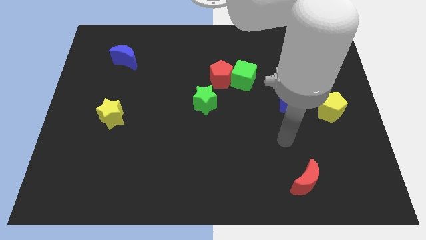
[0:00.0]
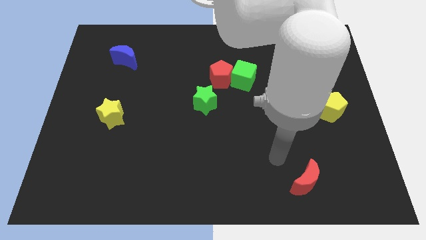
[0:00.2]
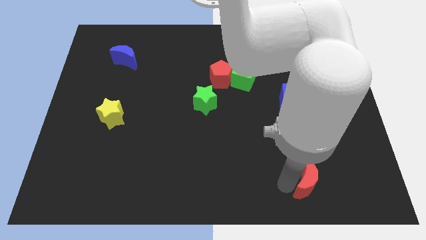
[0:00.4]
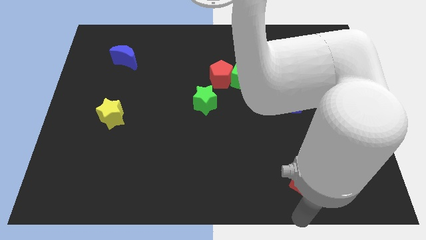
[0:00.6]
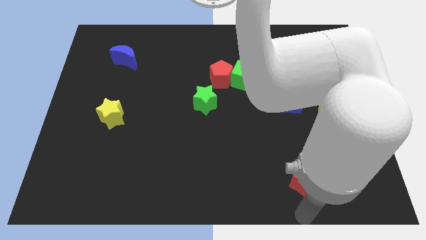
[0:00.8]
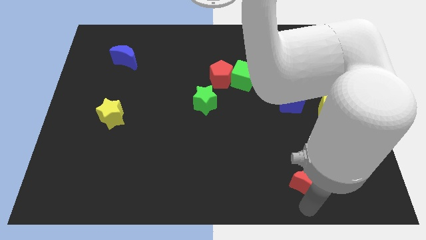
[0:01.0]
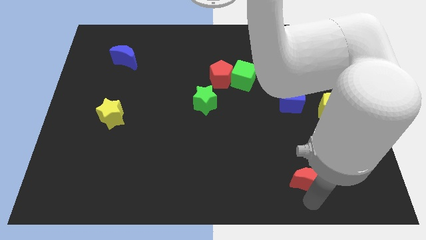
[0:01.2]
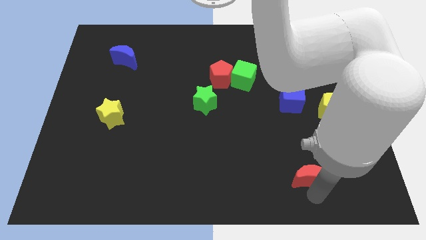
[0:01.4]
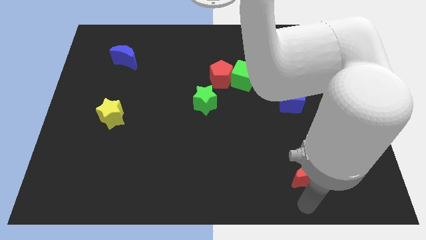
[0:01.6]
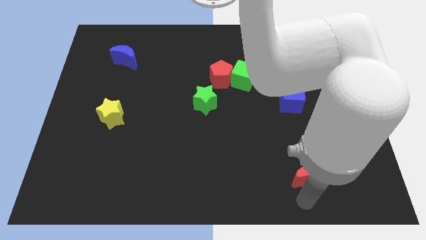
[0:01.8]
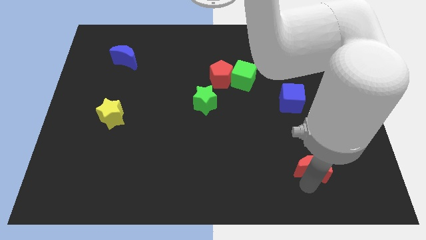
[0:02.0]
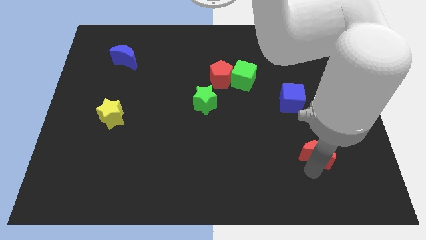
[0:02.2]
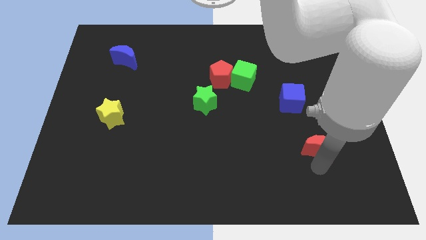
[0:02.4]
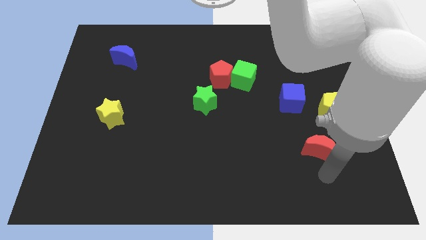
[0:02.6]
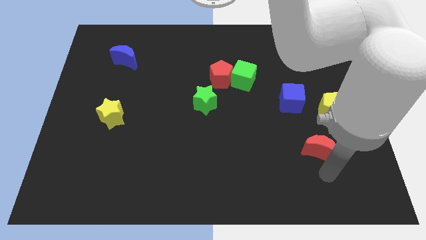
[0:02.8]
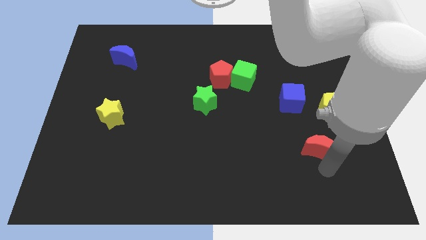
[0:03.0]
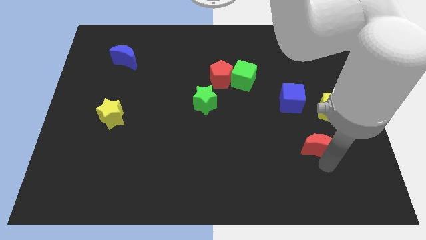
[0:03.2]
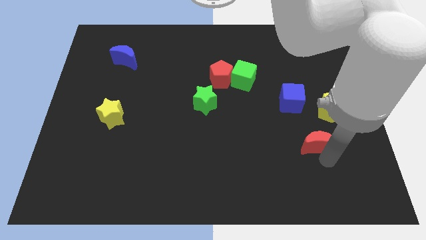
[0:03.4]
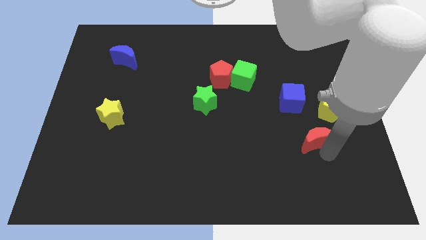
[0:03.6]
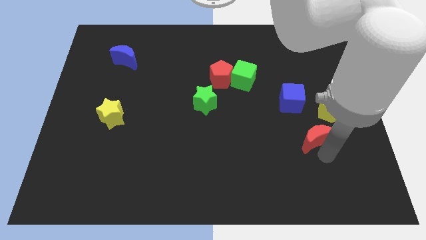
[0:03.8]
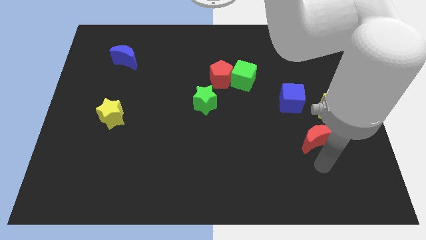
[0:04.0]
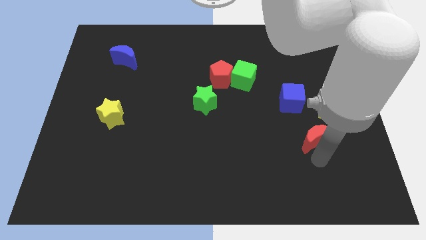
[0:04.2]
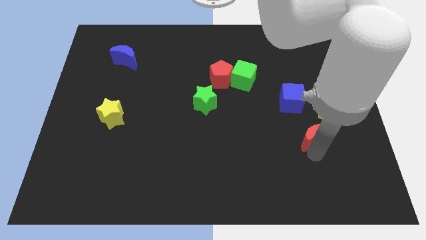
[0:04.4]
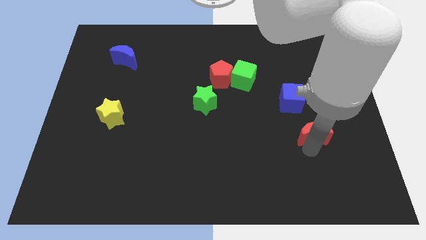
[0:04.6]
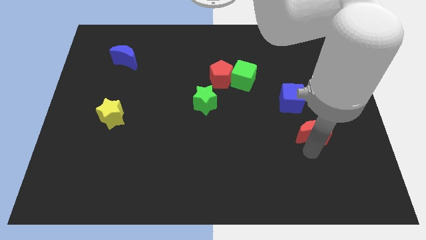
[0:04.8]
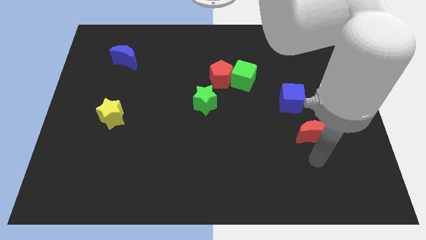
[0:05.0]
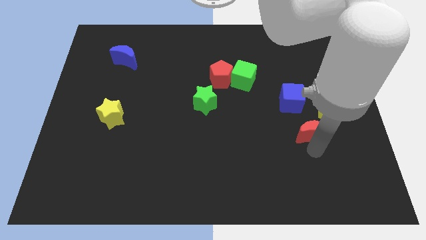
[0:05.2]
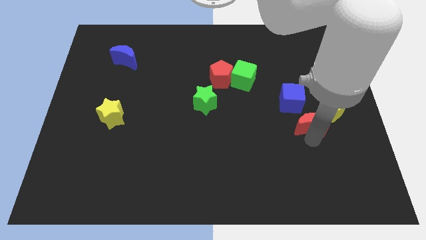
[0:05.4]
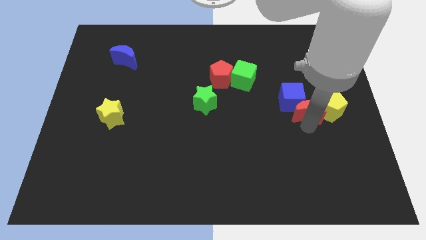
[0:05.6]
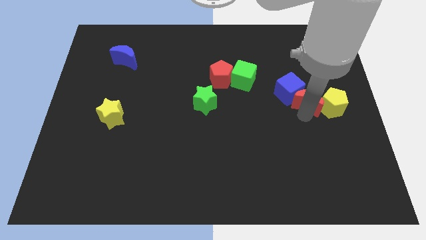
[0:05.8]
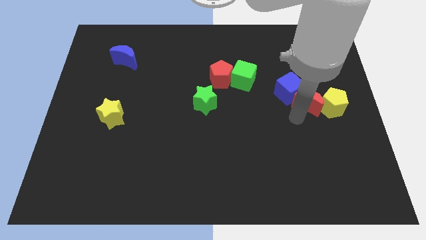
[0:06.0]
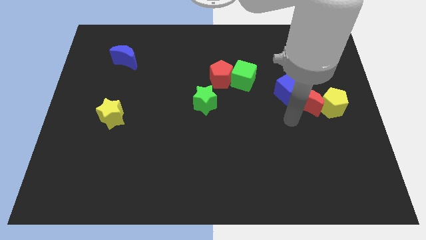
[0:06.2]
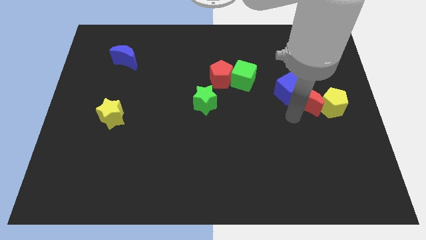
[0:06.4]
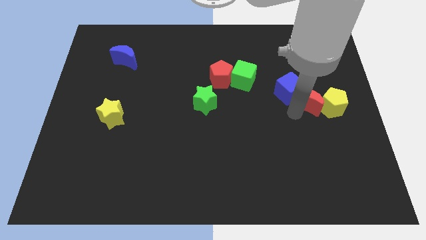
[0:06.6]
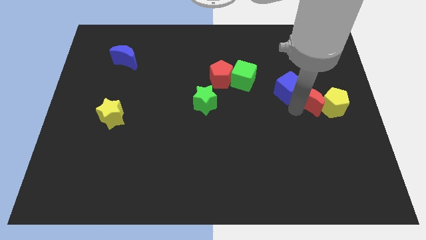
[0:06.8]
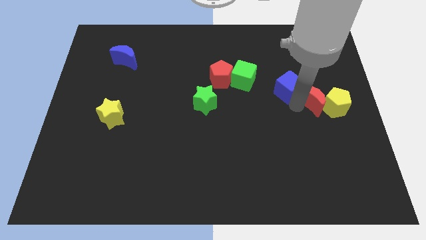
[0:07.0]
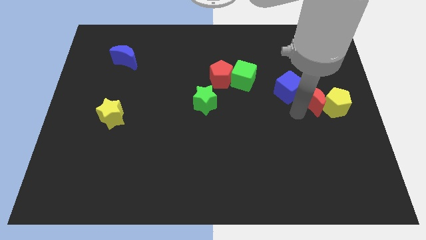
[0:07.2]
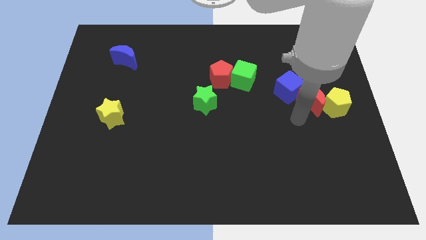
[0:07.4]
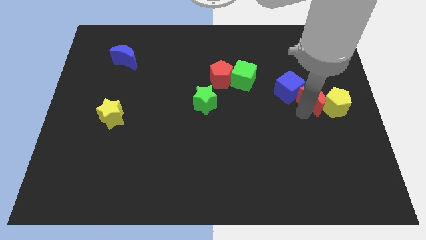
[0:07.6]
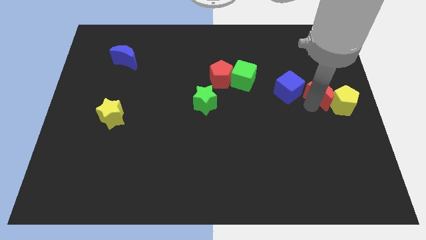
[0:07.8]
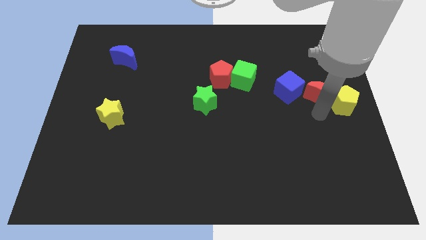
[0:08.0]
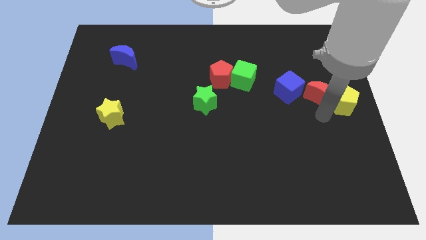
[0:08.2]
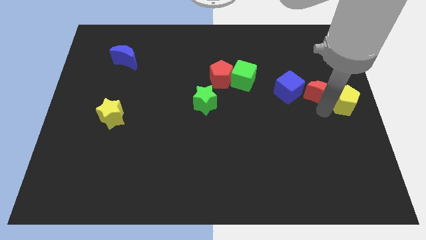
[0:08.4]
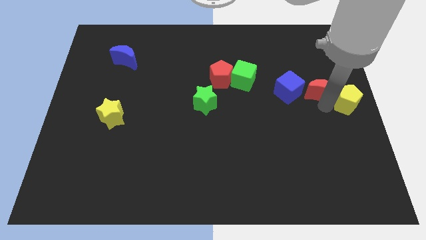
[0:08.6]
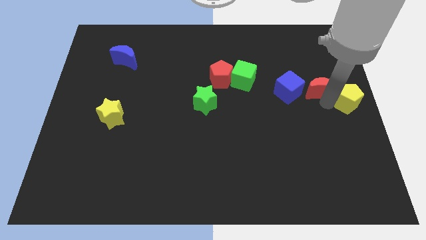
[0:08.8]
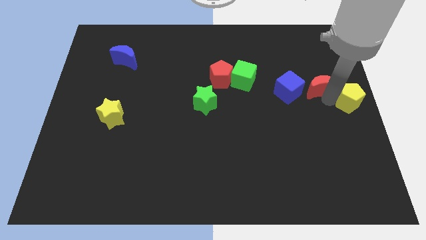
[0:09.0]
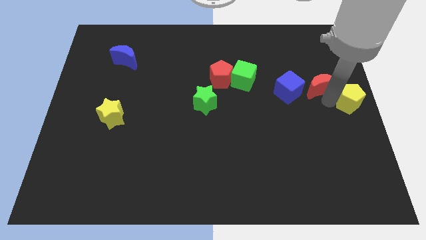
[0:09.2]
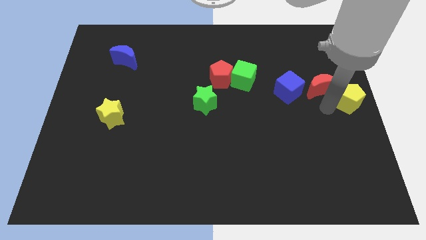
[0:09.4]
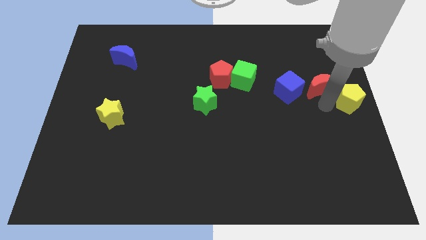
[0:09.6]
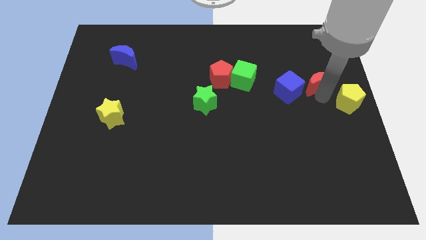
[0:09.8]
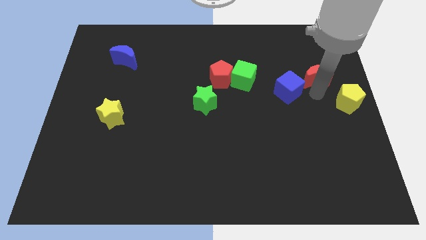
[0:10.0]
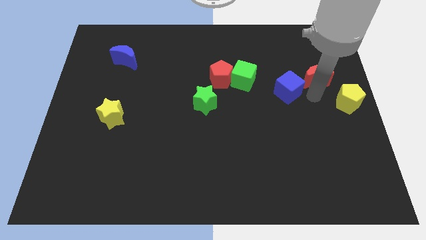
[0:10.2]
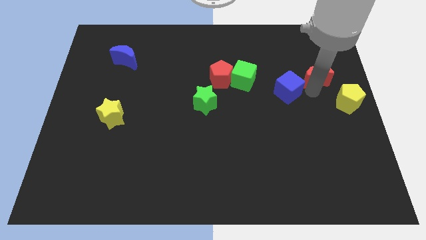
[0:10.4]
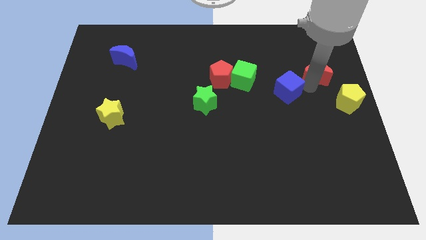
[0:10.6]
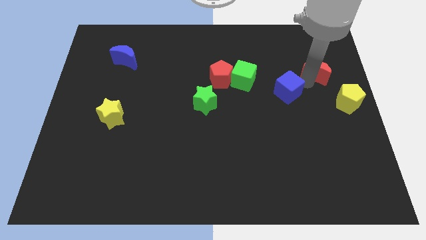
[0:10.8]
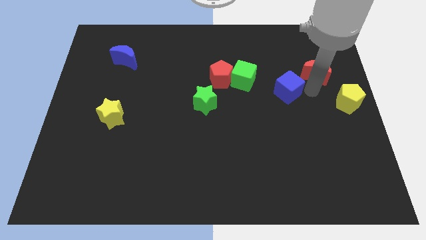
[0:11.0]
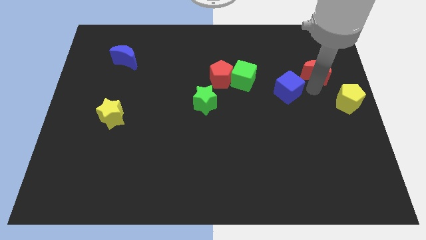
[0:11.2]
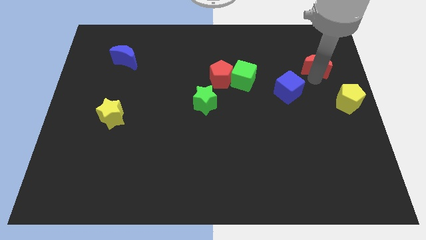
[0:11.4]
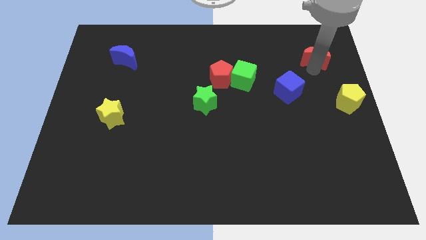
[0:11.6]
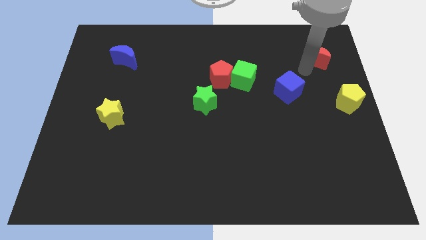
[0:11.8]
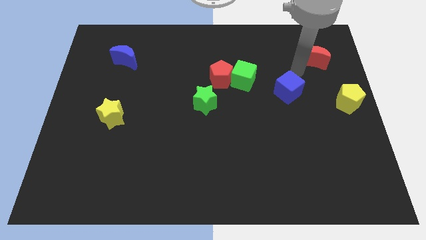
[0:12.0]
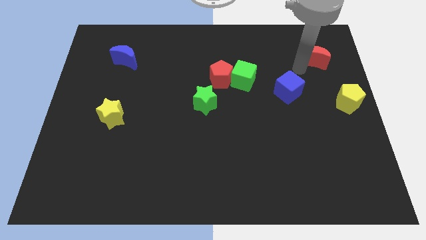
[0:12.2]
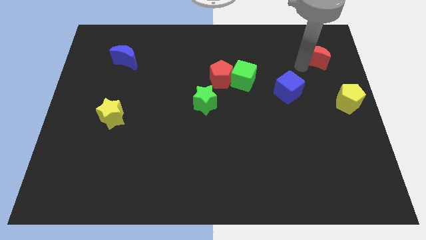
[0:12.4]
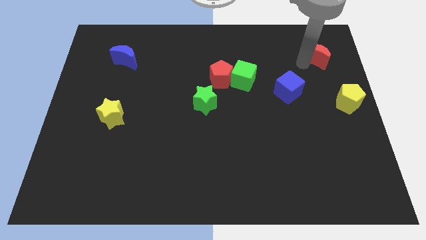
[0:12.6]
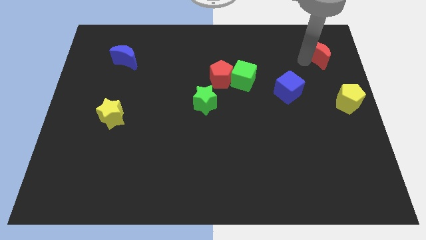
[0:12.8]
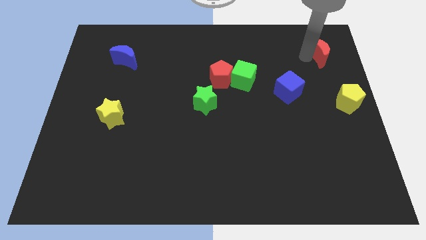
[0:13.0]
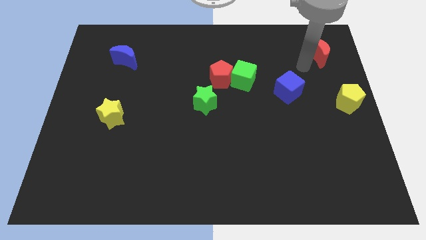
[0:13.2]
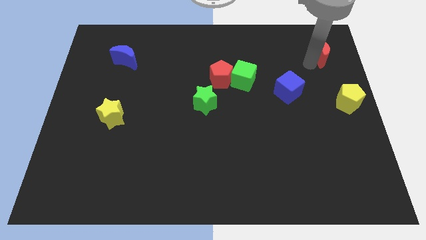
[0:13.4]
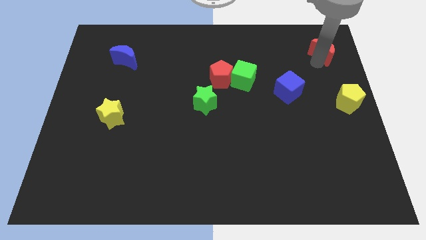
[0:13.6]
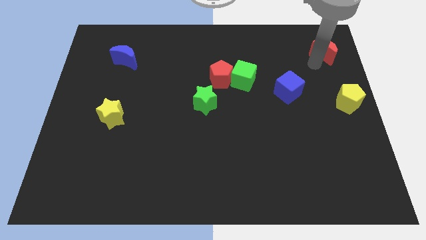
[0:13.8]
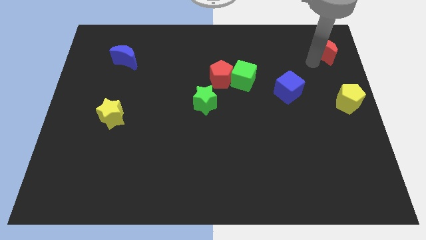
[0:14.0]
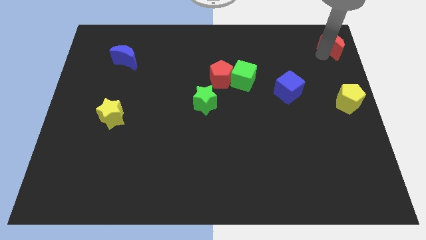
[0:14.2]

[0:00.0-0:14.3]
slide the red moon to the top right
